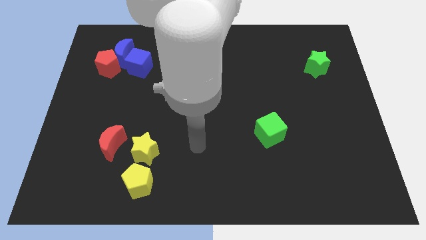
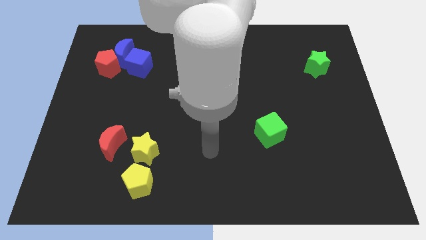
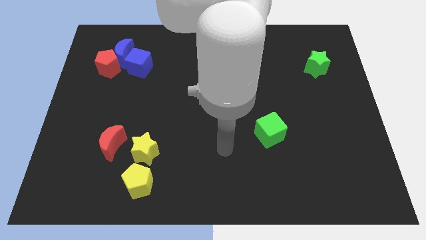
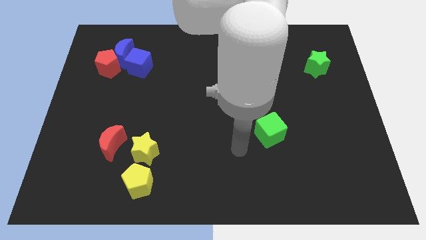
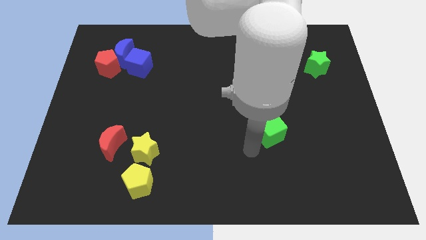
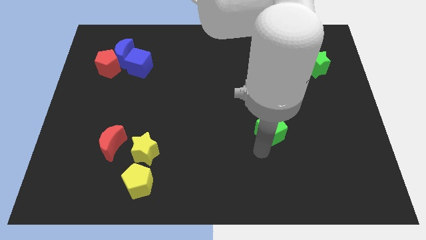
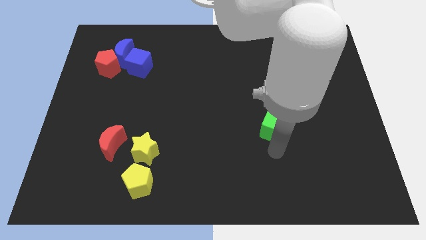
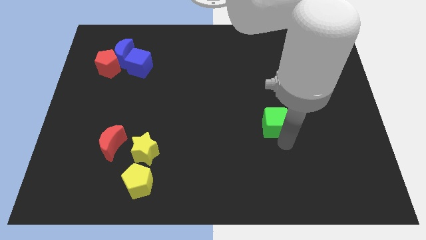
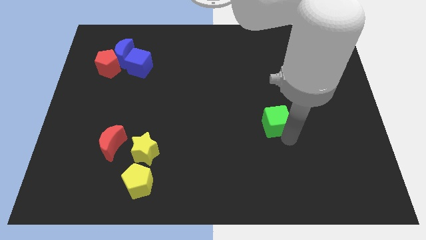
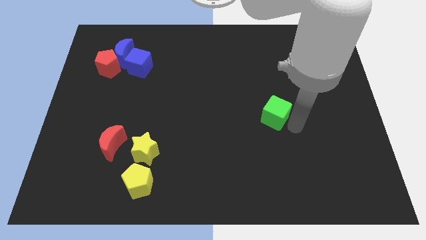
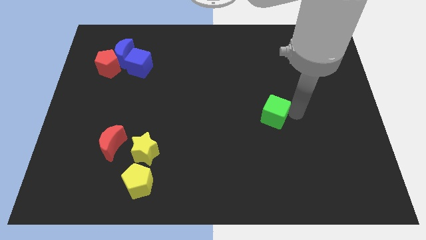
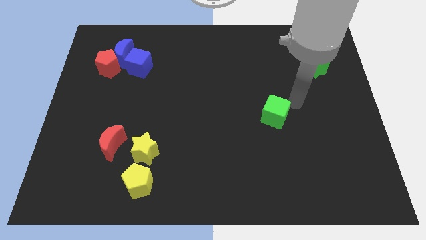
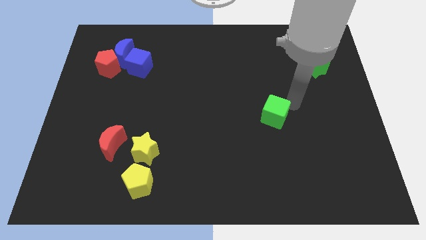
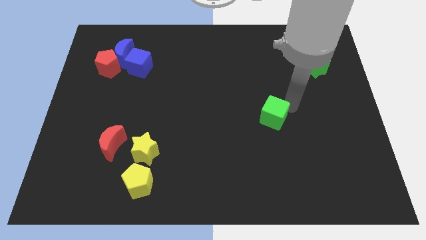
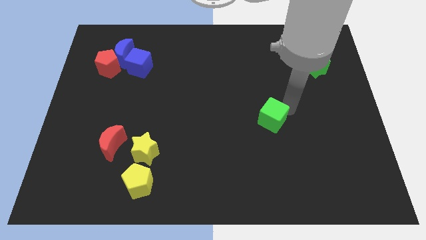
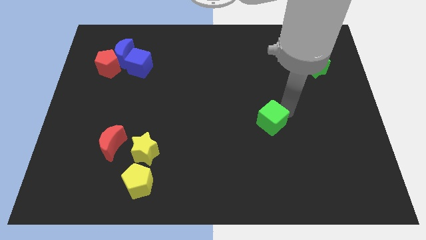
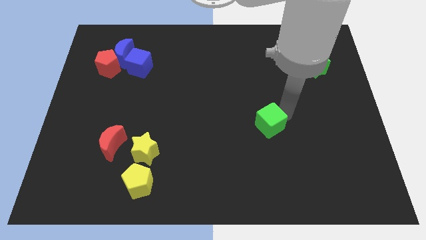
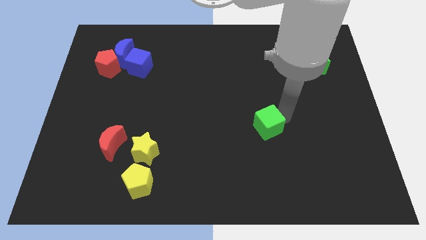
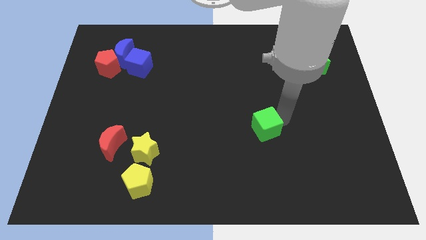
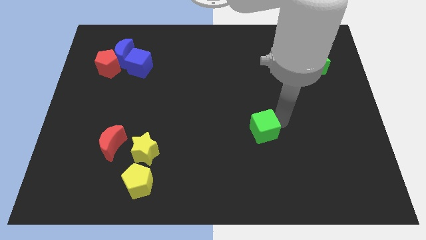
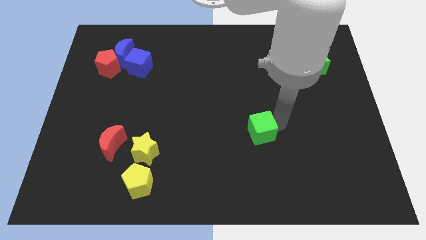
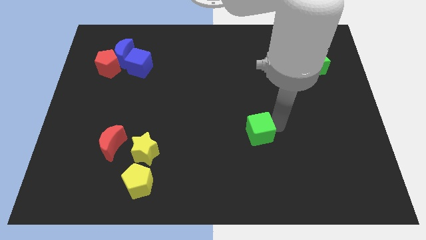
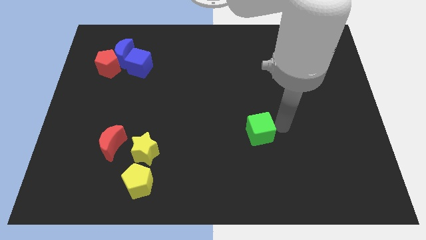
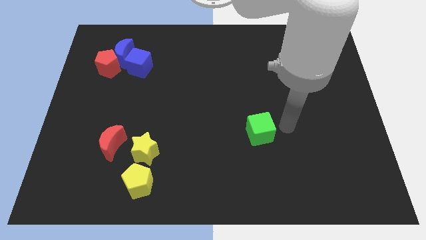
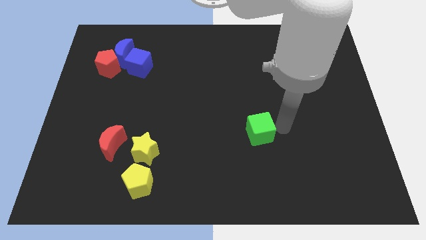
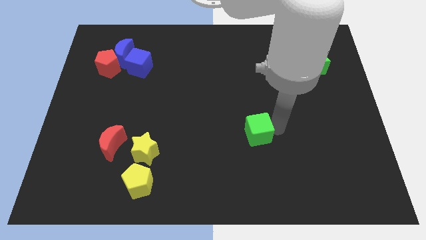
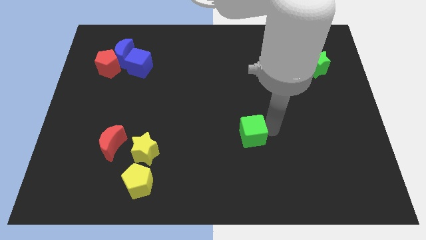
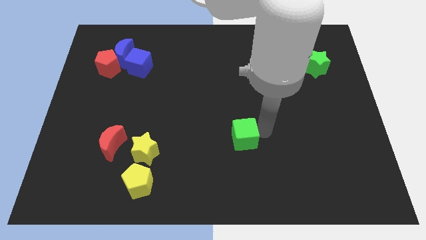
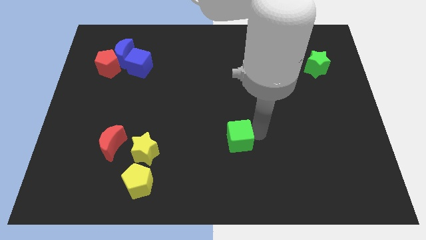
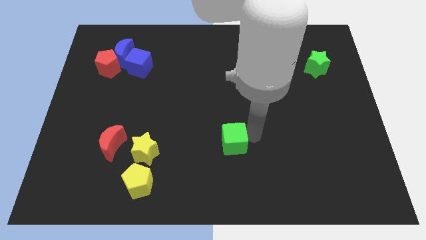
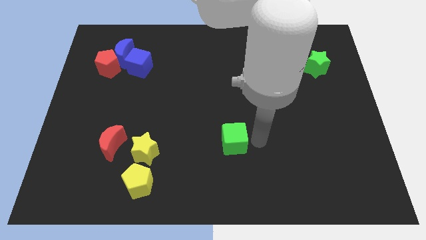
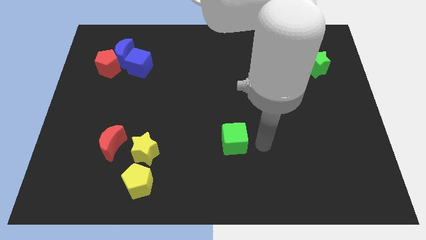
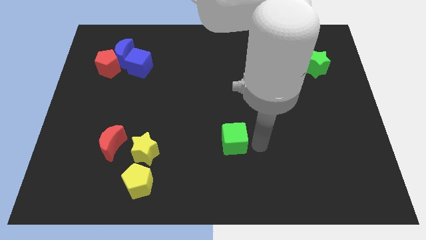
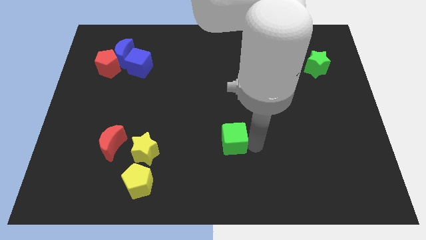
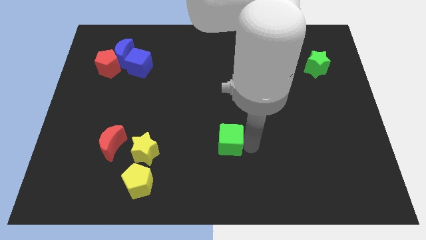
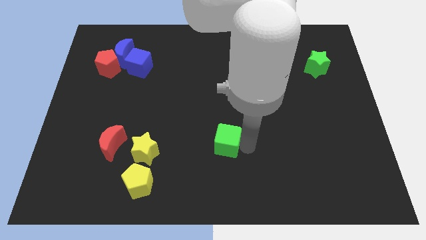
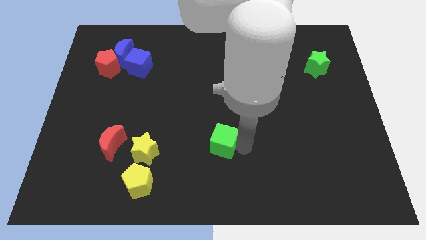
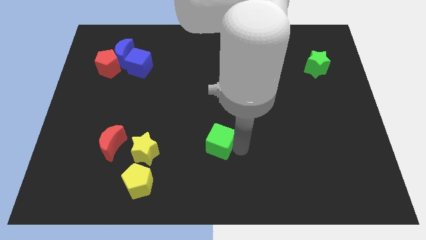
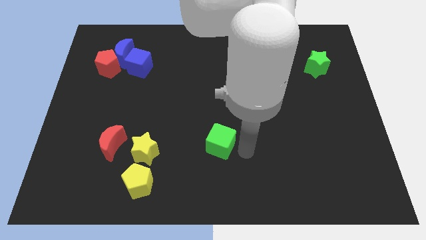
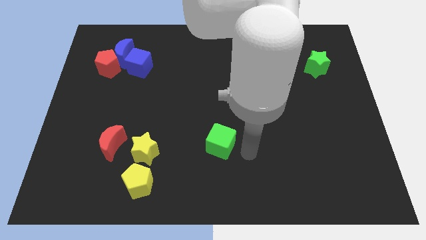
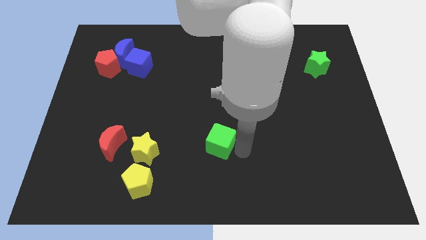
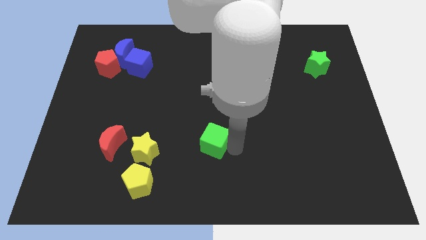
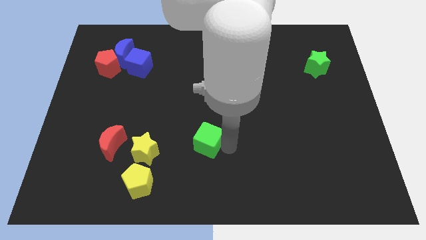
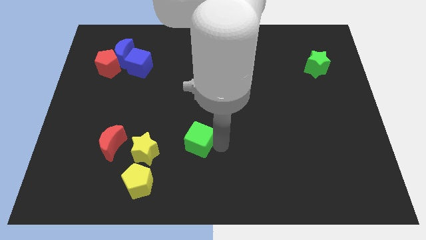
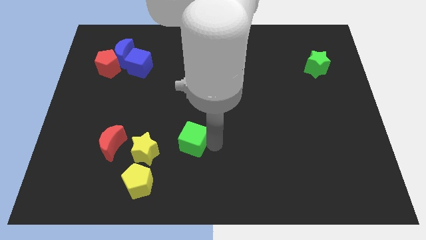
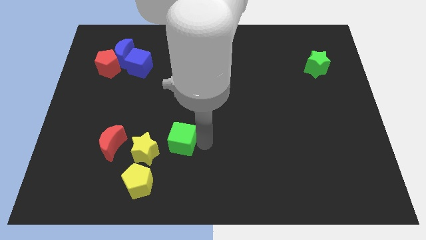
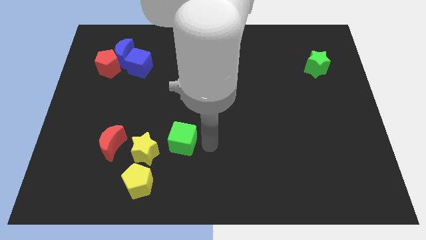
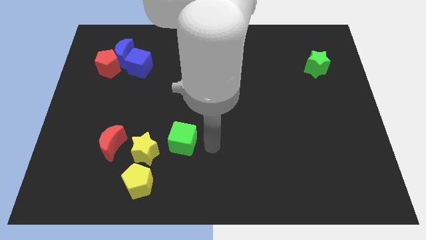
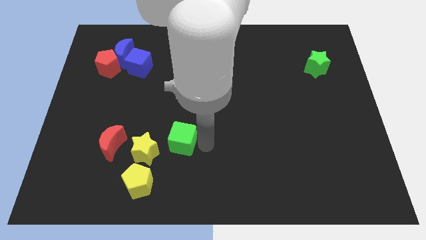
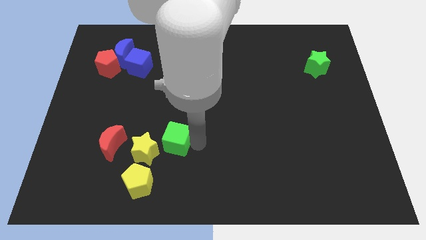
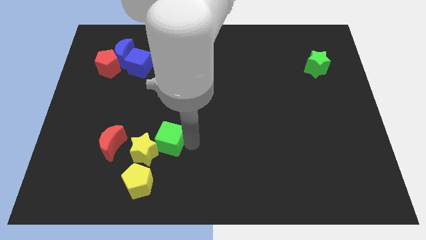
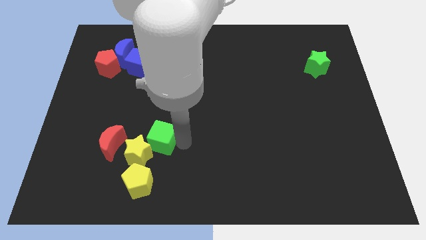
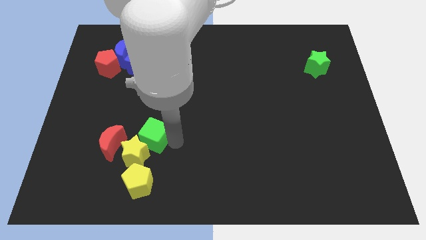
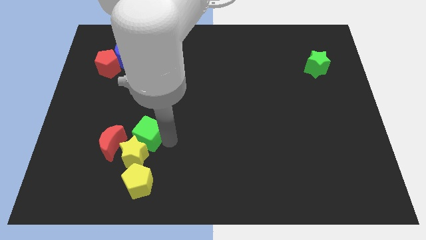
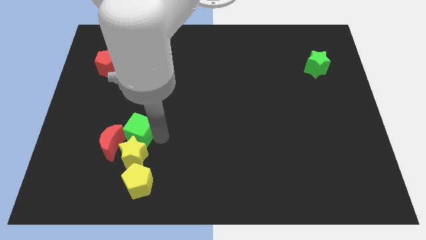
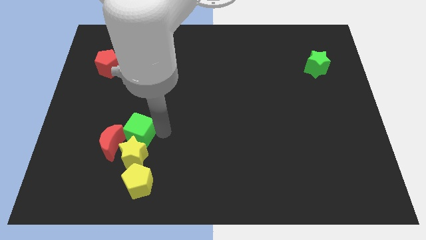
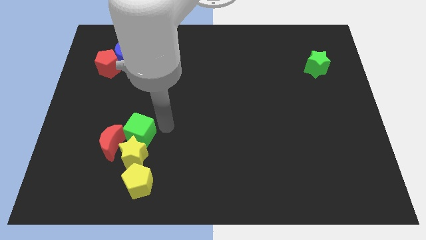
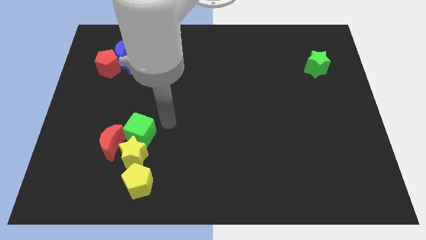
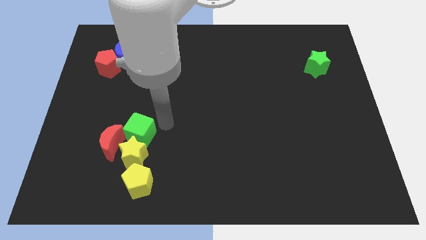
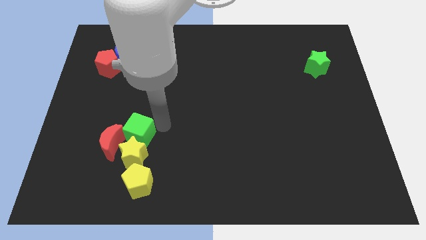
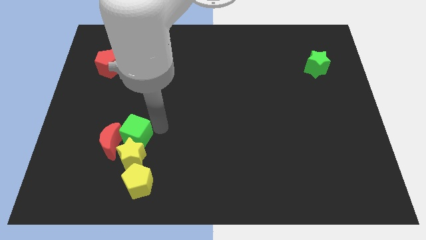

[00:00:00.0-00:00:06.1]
put the green cube towards the red moon
